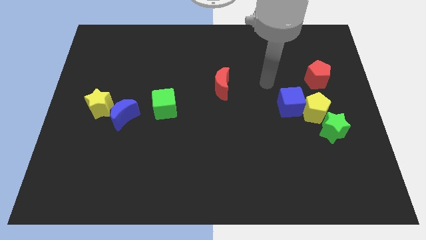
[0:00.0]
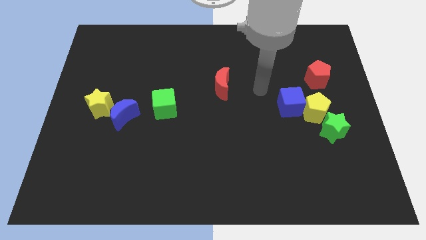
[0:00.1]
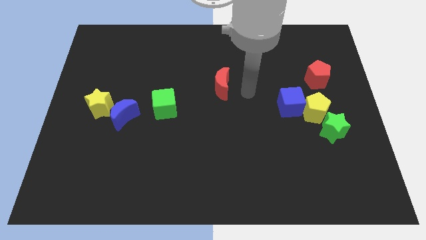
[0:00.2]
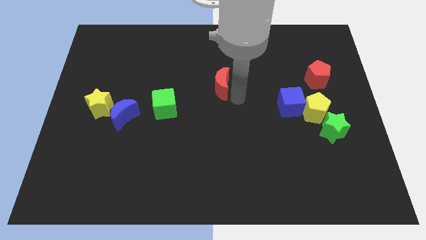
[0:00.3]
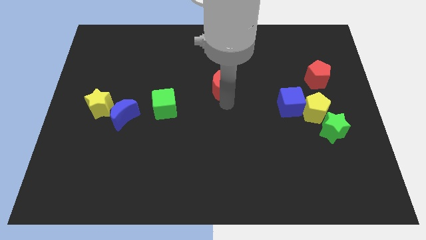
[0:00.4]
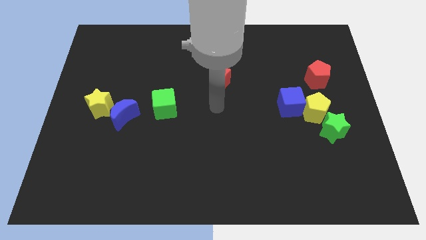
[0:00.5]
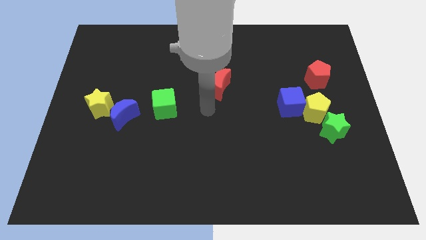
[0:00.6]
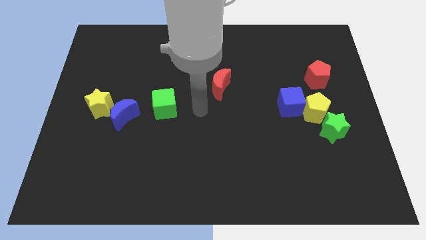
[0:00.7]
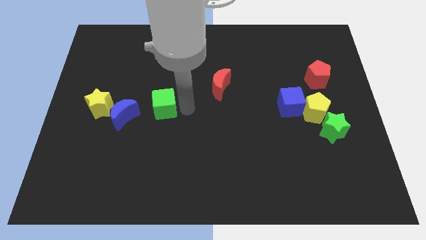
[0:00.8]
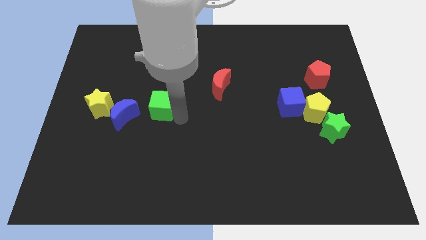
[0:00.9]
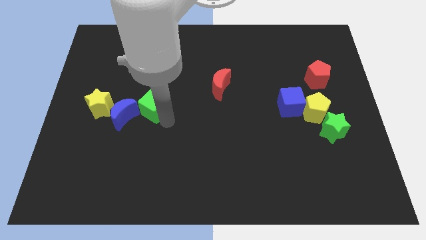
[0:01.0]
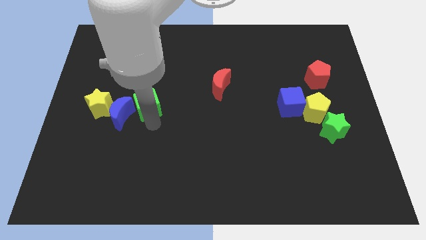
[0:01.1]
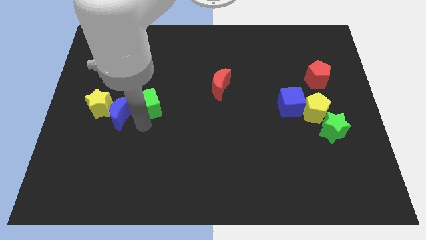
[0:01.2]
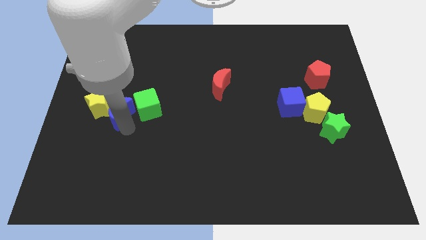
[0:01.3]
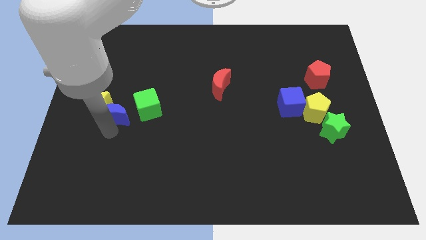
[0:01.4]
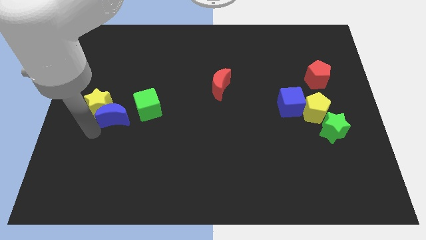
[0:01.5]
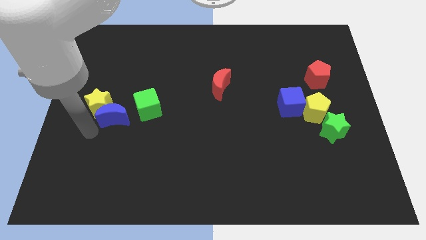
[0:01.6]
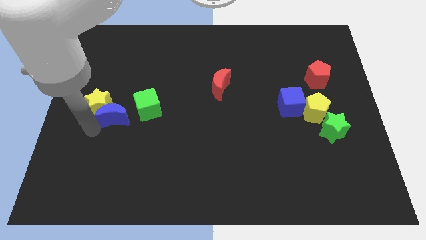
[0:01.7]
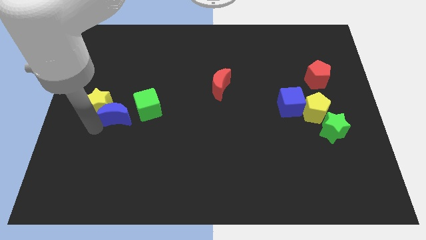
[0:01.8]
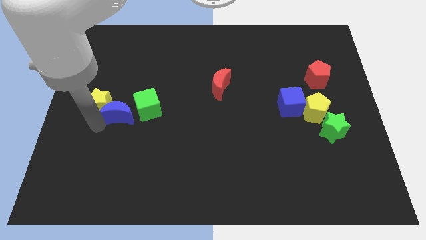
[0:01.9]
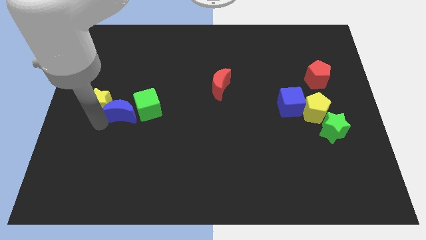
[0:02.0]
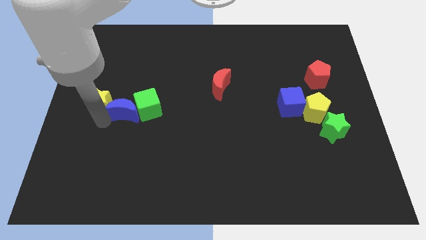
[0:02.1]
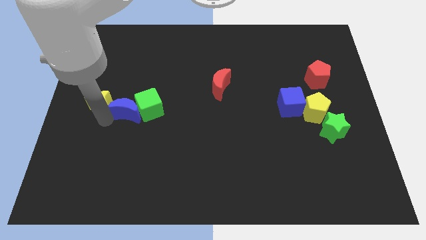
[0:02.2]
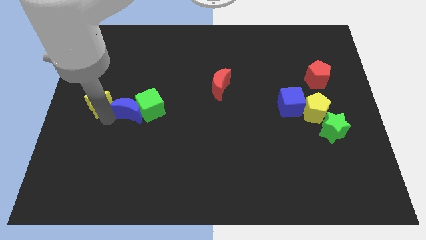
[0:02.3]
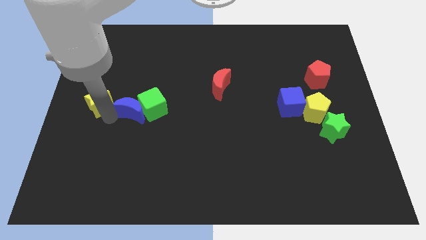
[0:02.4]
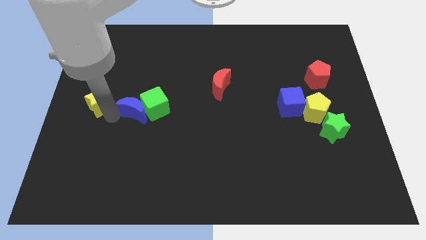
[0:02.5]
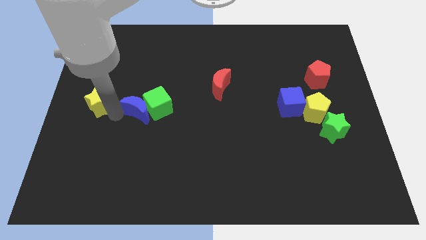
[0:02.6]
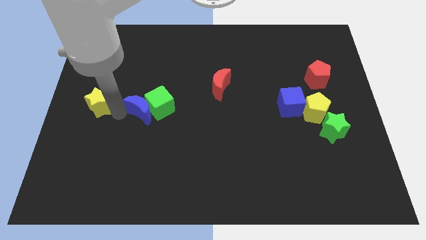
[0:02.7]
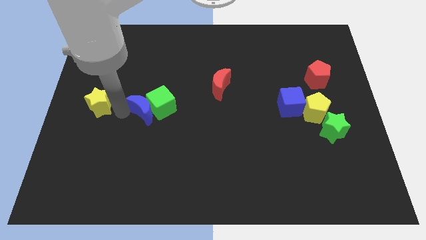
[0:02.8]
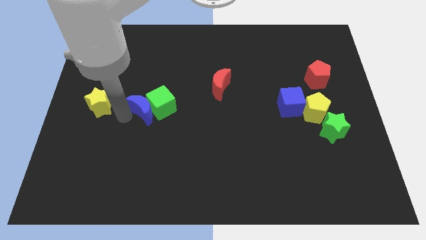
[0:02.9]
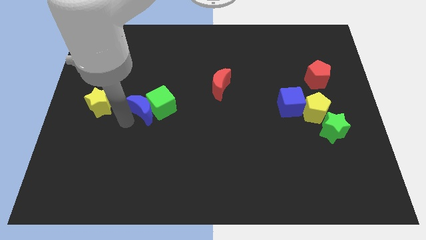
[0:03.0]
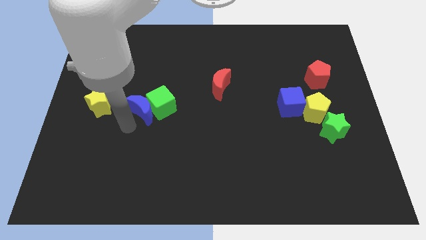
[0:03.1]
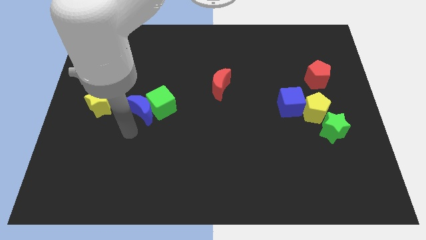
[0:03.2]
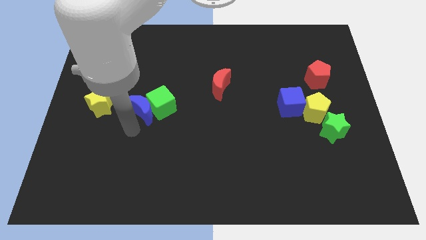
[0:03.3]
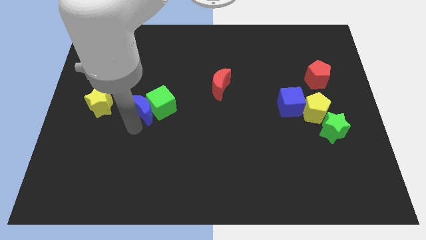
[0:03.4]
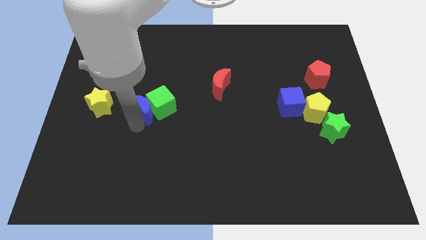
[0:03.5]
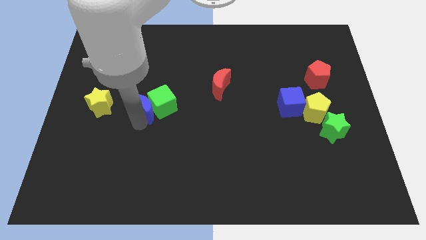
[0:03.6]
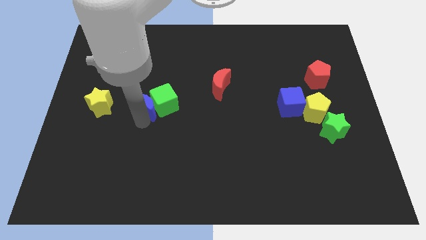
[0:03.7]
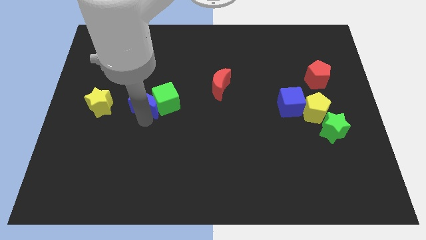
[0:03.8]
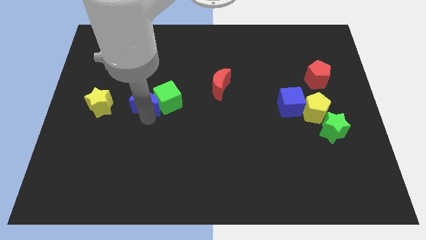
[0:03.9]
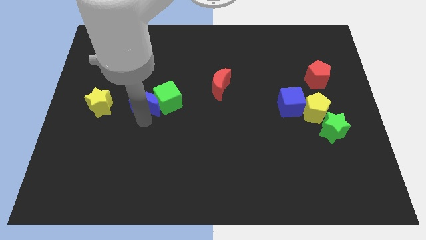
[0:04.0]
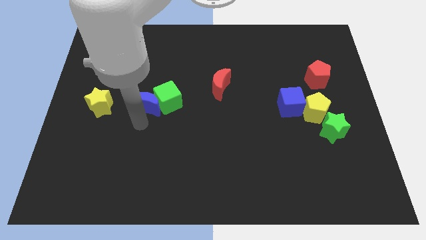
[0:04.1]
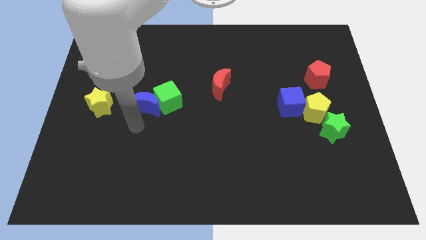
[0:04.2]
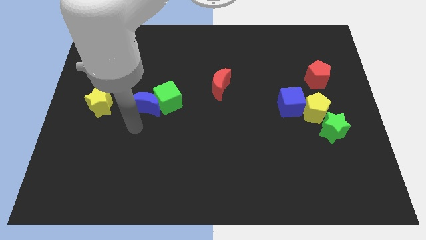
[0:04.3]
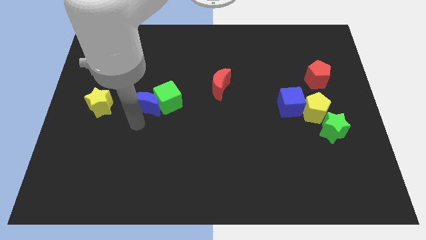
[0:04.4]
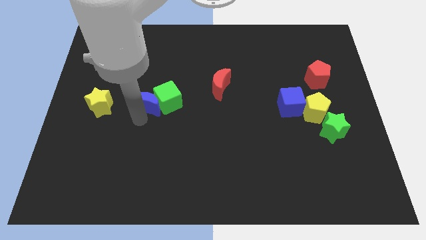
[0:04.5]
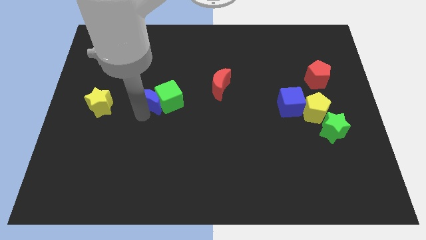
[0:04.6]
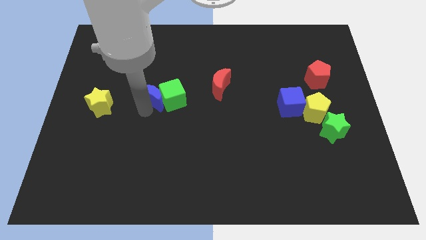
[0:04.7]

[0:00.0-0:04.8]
move the blue moon up and to the right slightly

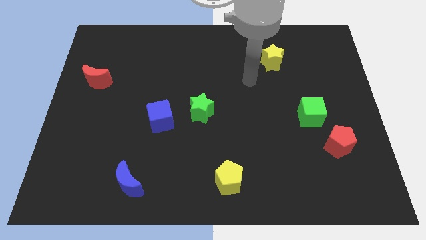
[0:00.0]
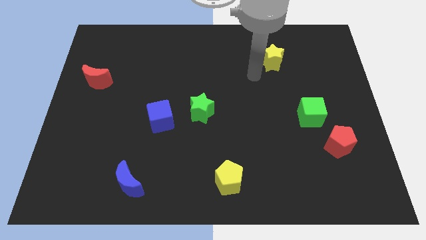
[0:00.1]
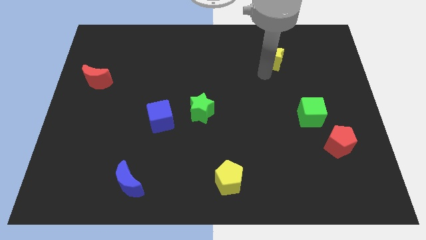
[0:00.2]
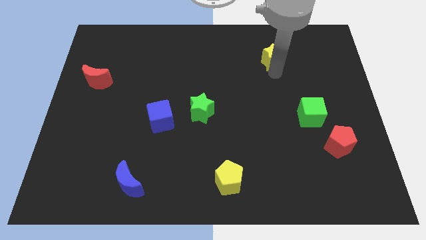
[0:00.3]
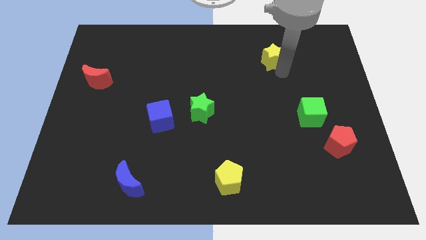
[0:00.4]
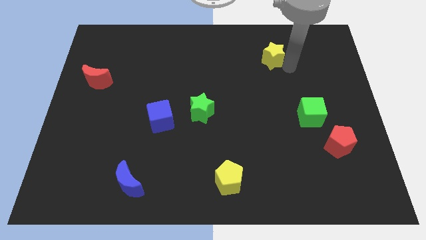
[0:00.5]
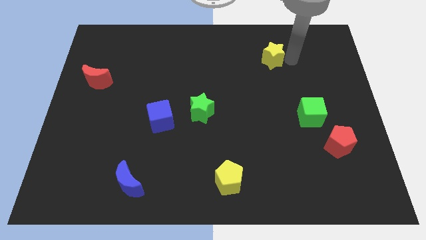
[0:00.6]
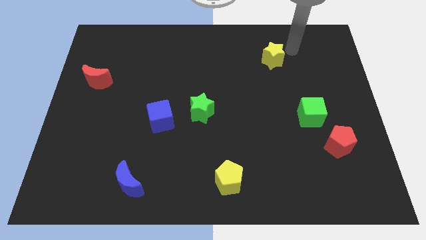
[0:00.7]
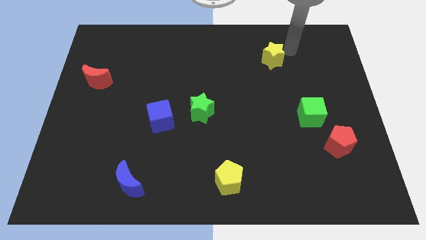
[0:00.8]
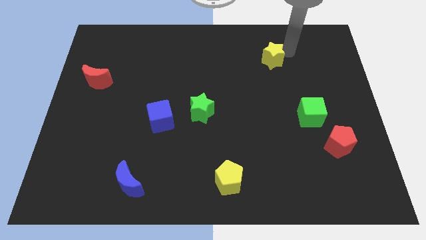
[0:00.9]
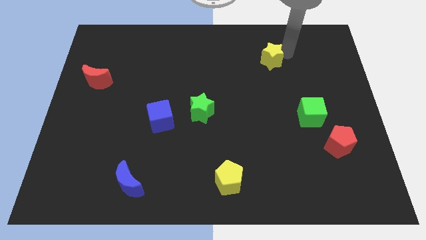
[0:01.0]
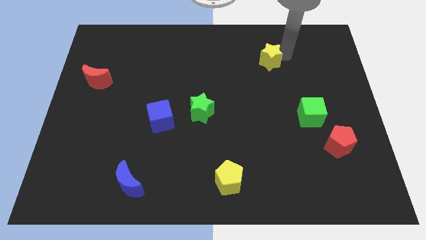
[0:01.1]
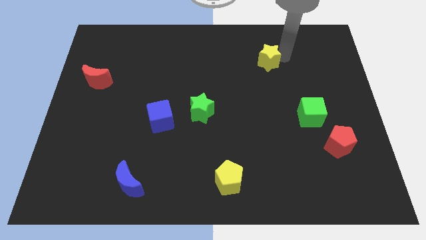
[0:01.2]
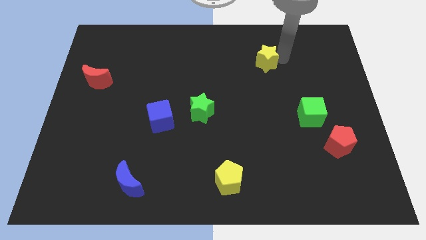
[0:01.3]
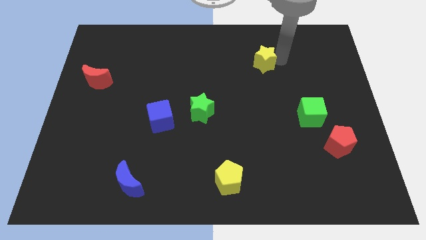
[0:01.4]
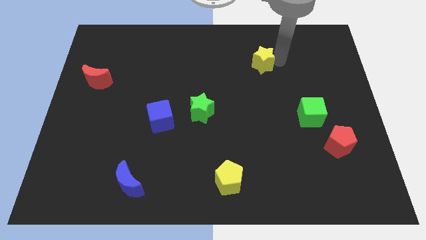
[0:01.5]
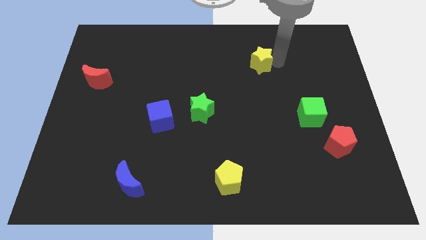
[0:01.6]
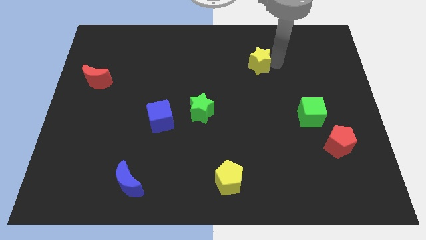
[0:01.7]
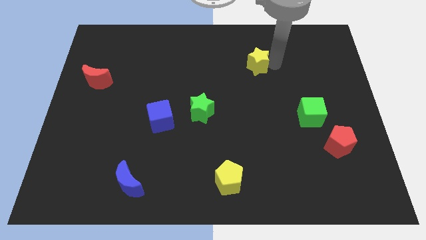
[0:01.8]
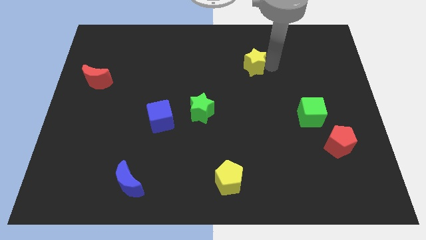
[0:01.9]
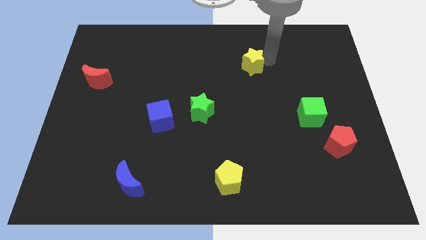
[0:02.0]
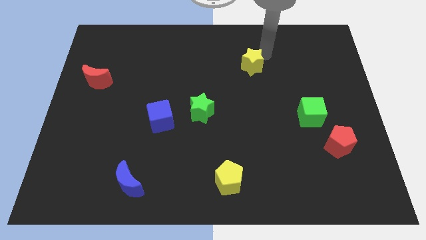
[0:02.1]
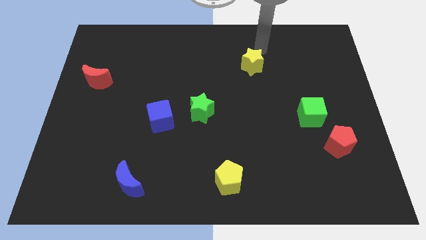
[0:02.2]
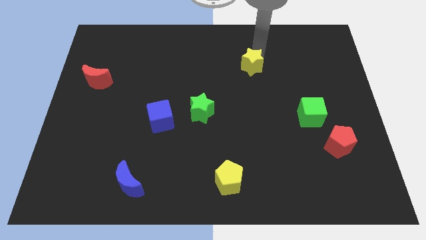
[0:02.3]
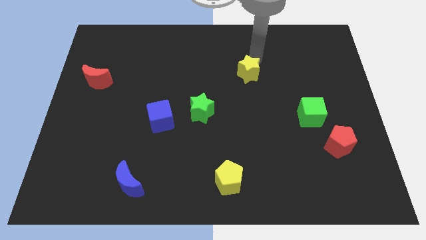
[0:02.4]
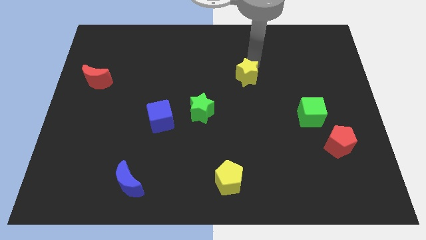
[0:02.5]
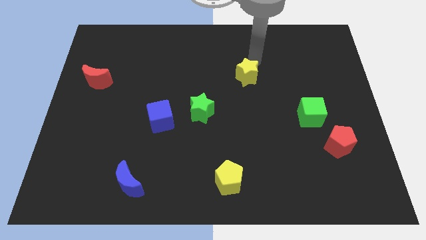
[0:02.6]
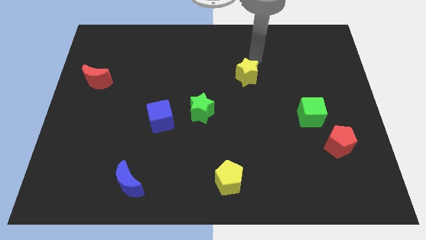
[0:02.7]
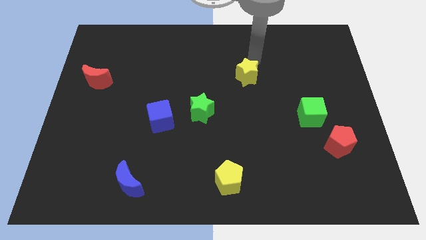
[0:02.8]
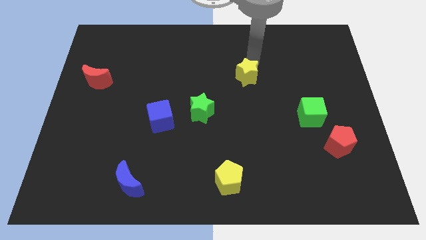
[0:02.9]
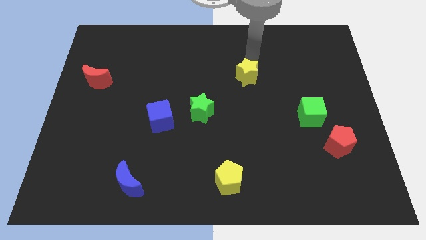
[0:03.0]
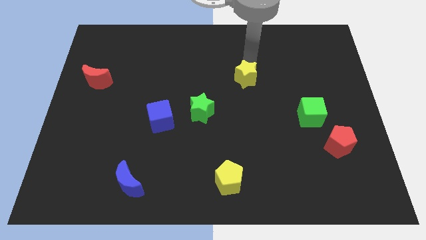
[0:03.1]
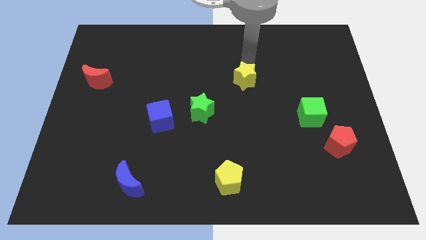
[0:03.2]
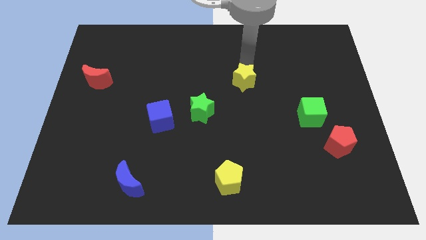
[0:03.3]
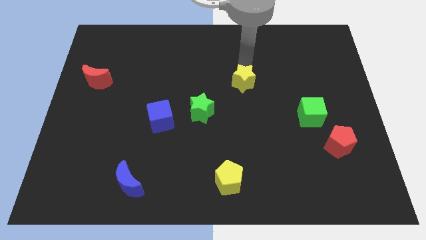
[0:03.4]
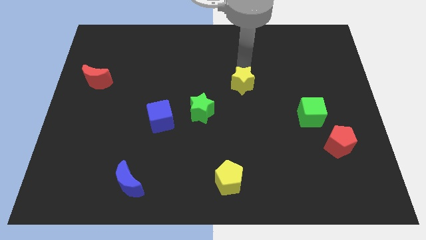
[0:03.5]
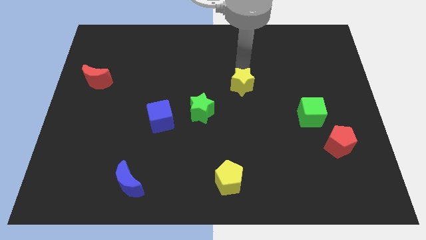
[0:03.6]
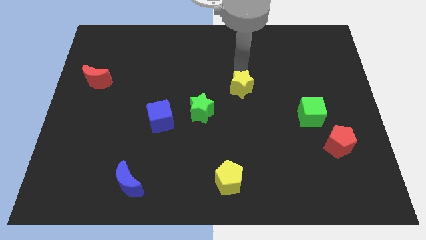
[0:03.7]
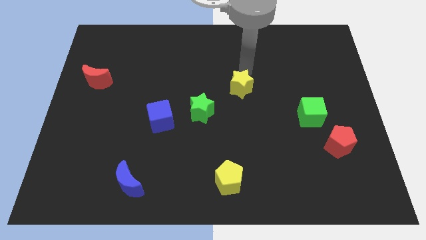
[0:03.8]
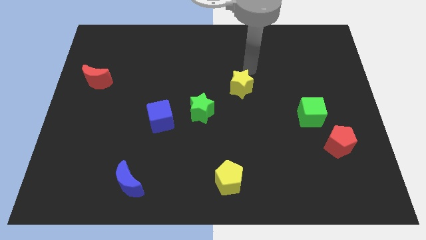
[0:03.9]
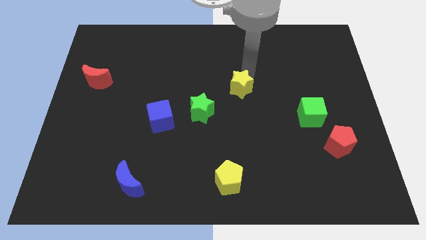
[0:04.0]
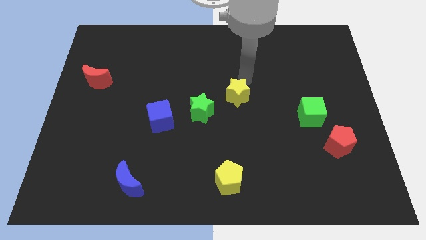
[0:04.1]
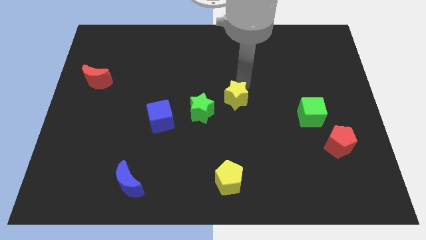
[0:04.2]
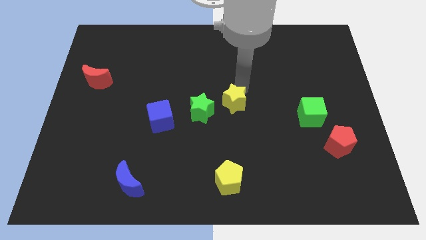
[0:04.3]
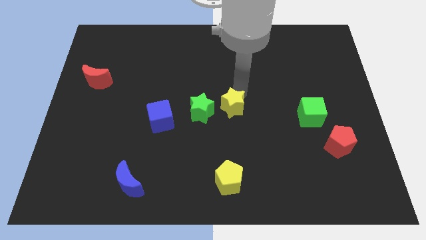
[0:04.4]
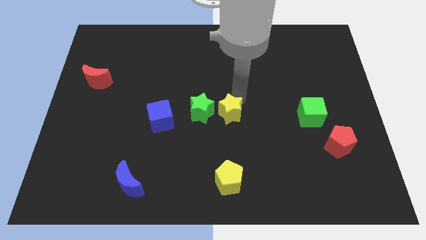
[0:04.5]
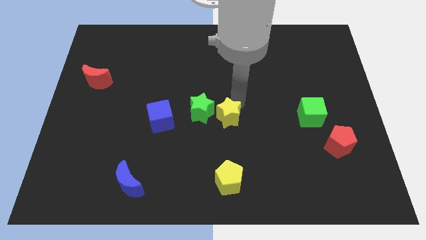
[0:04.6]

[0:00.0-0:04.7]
move the yellow star diagonally down and left
